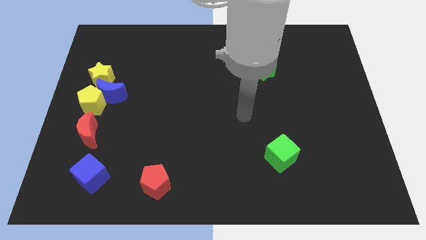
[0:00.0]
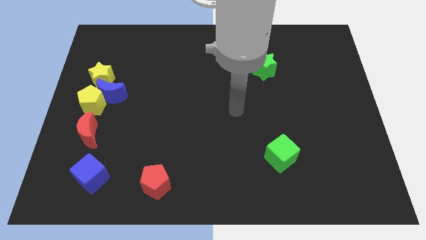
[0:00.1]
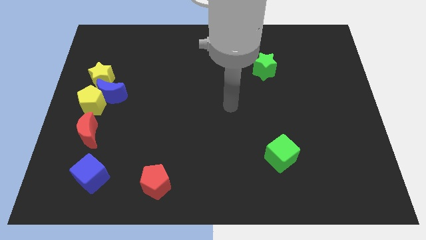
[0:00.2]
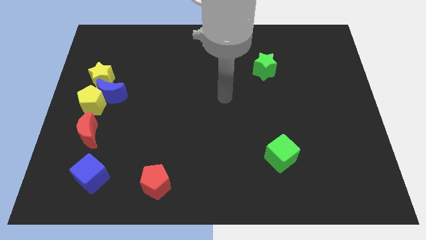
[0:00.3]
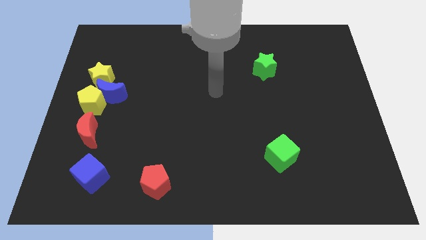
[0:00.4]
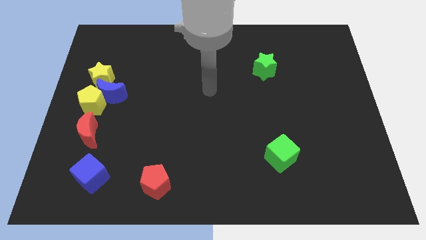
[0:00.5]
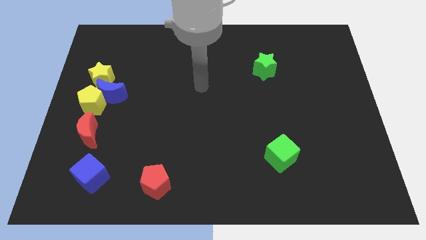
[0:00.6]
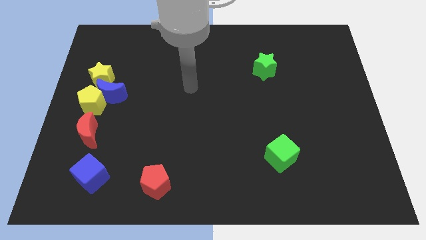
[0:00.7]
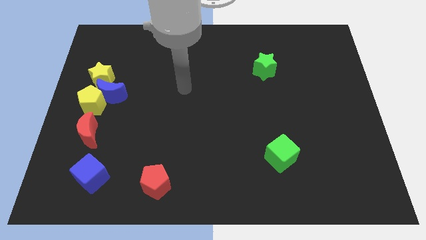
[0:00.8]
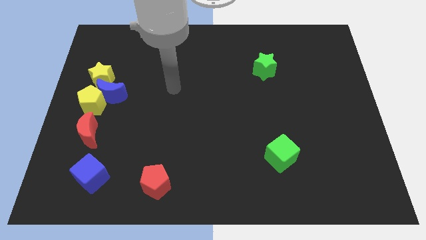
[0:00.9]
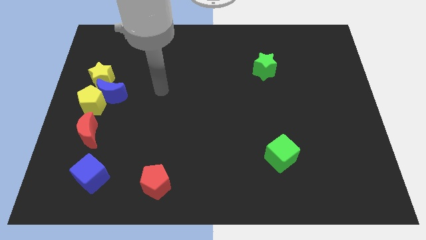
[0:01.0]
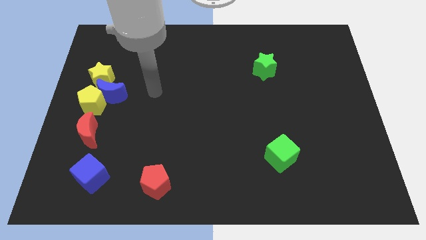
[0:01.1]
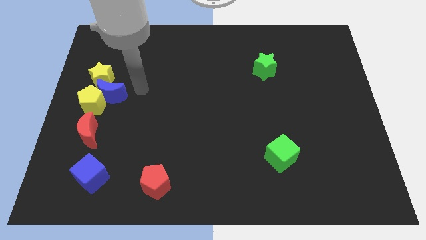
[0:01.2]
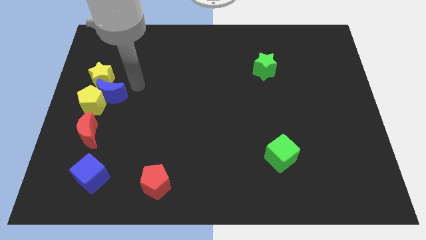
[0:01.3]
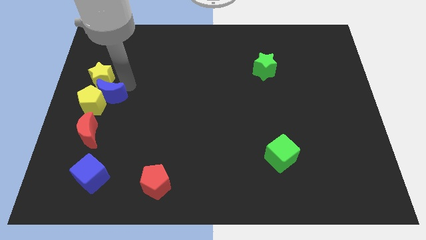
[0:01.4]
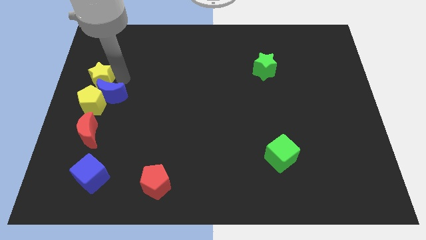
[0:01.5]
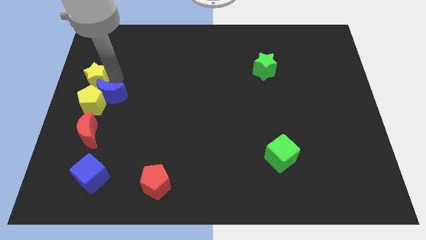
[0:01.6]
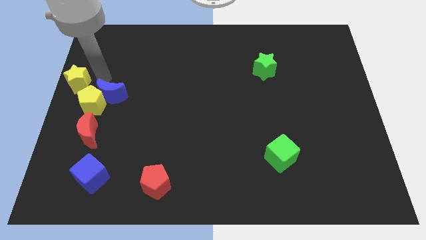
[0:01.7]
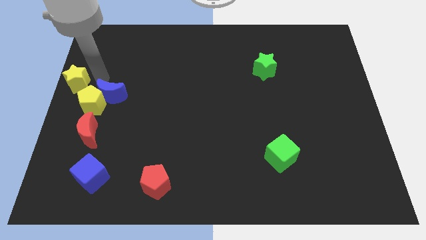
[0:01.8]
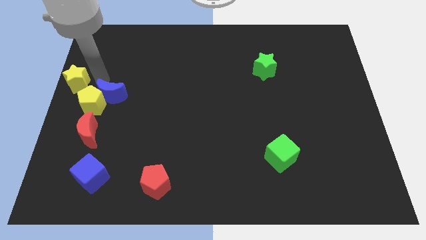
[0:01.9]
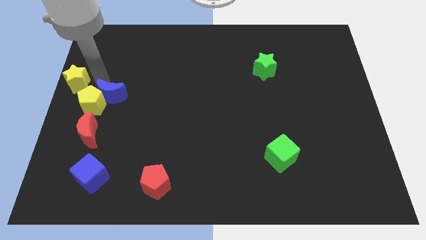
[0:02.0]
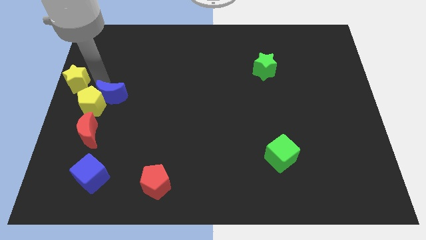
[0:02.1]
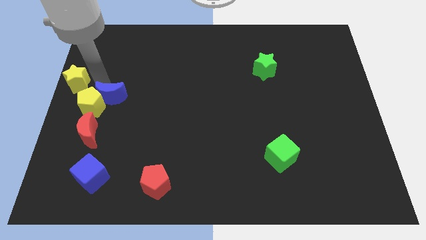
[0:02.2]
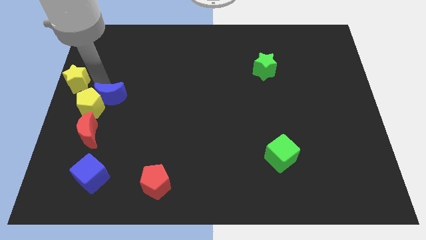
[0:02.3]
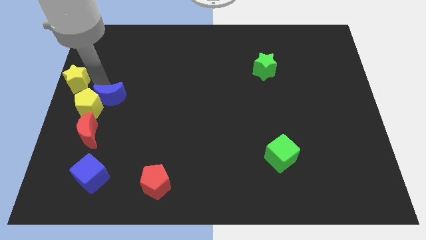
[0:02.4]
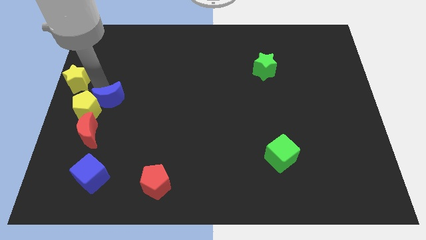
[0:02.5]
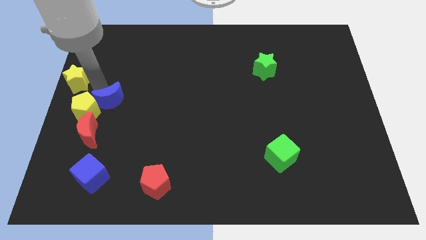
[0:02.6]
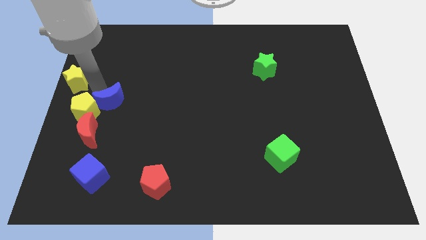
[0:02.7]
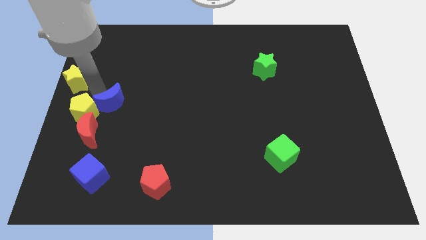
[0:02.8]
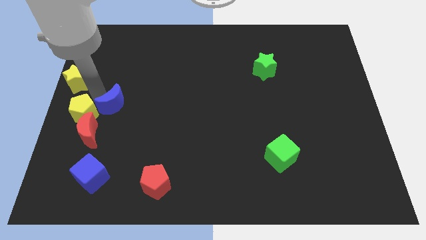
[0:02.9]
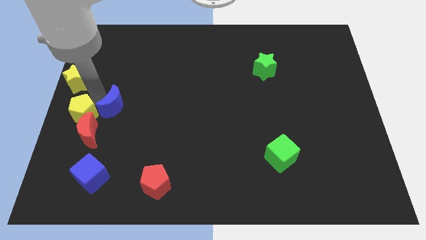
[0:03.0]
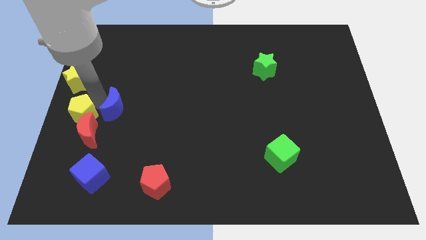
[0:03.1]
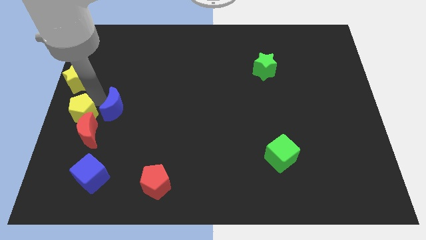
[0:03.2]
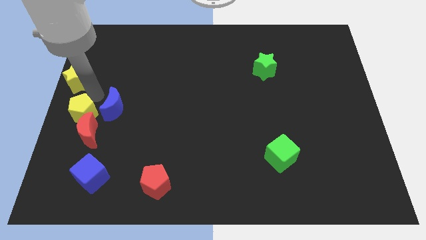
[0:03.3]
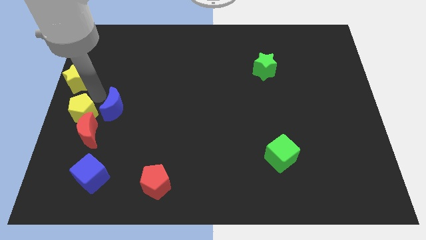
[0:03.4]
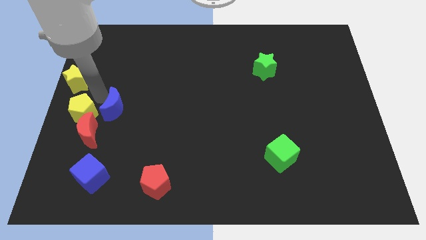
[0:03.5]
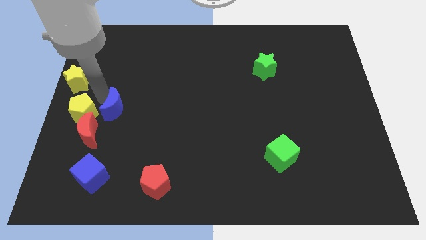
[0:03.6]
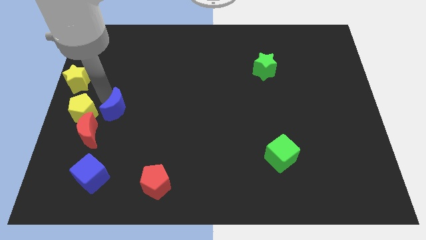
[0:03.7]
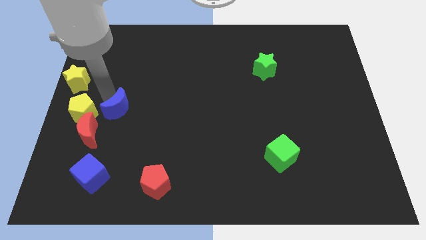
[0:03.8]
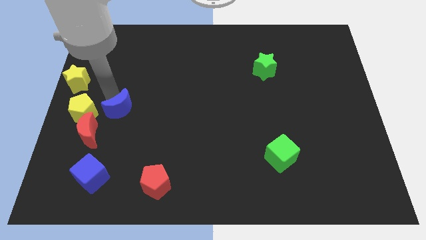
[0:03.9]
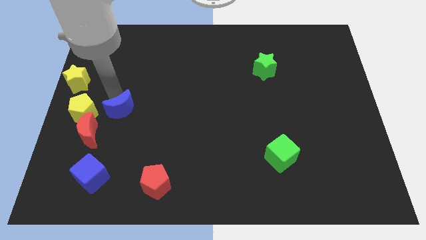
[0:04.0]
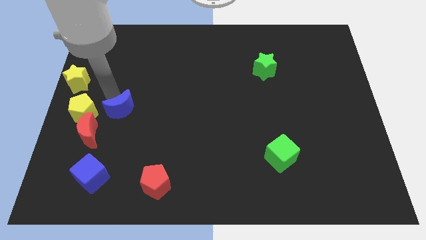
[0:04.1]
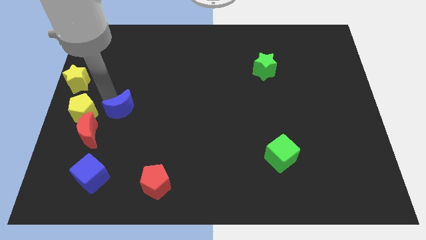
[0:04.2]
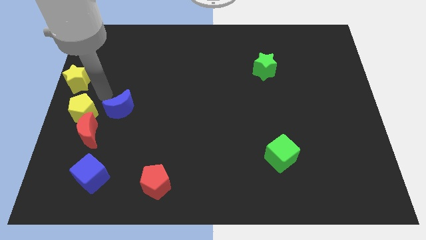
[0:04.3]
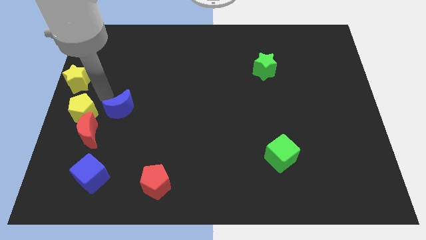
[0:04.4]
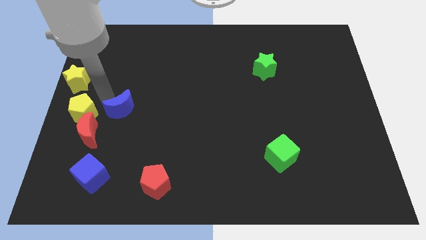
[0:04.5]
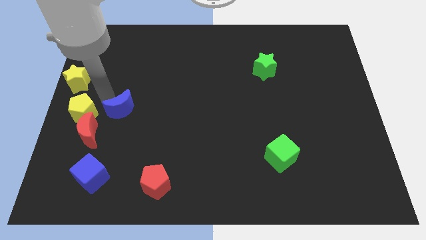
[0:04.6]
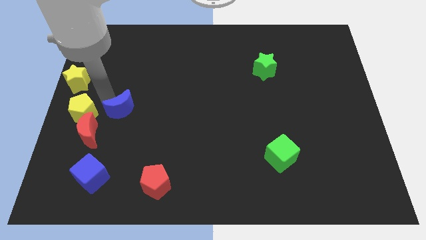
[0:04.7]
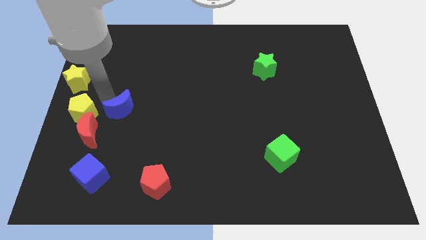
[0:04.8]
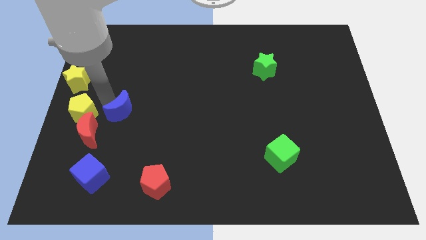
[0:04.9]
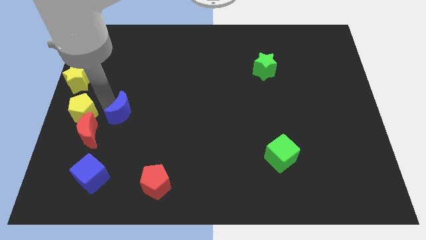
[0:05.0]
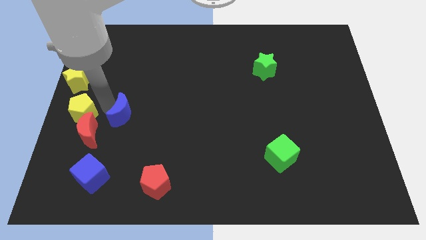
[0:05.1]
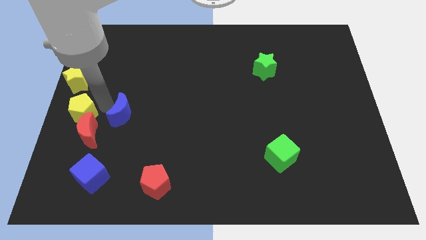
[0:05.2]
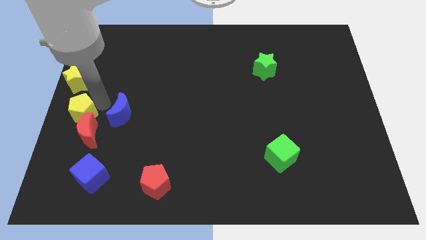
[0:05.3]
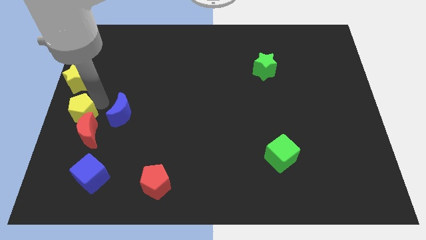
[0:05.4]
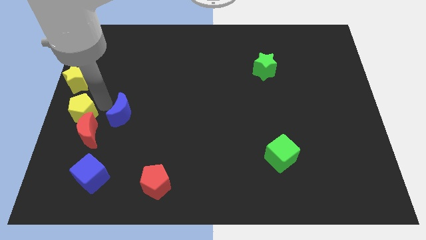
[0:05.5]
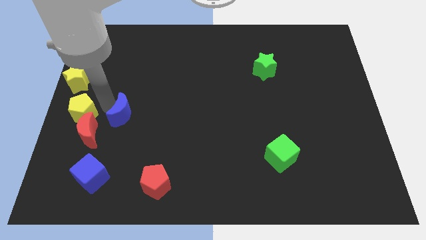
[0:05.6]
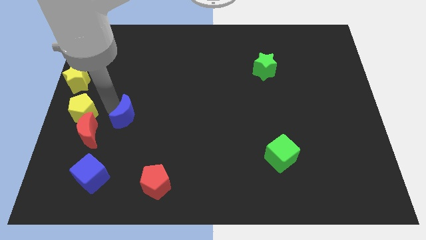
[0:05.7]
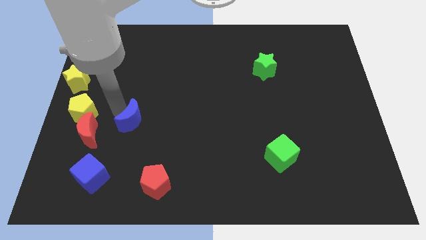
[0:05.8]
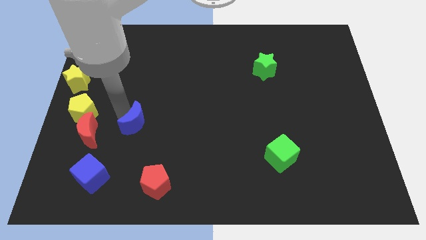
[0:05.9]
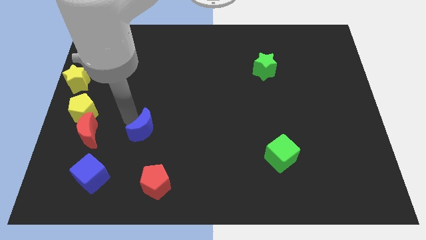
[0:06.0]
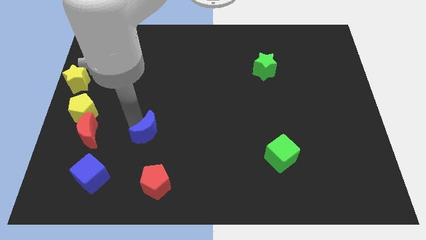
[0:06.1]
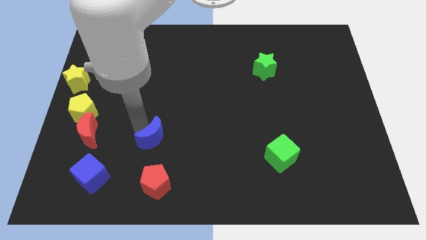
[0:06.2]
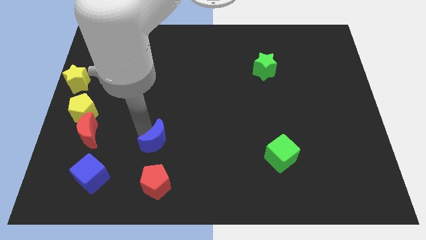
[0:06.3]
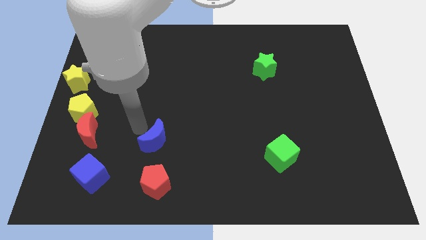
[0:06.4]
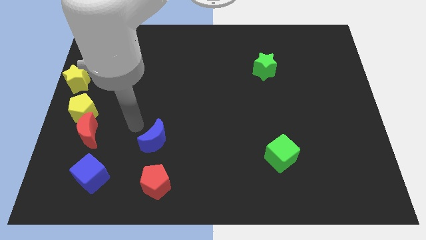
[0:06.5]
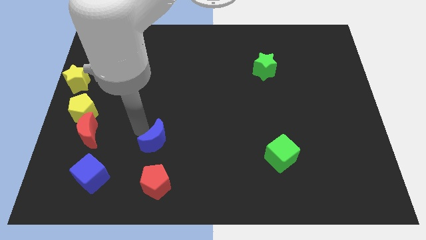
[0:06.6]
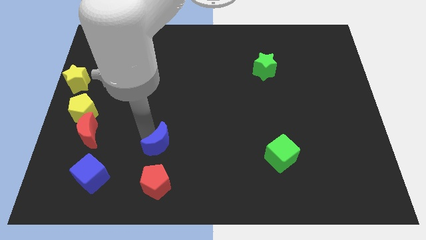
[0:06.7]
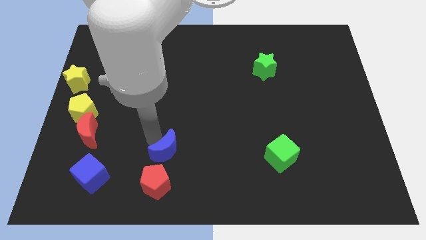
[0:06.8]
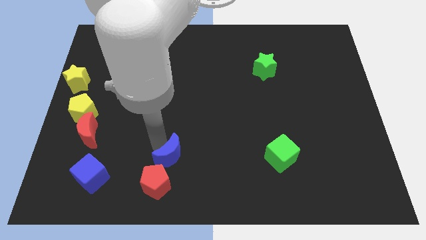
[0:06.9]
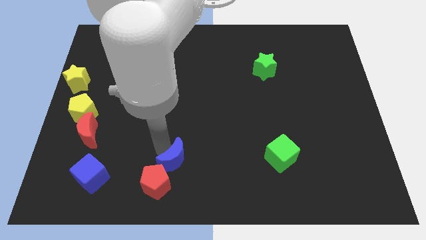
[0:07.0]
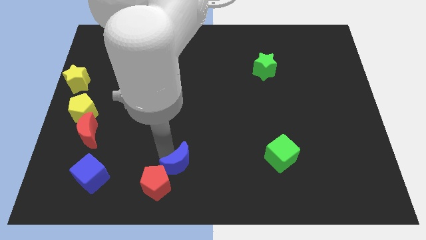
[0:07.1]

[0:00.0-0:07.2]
slide the blue moon to the bottom side
